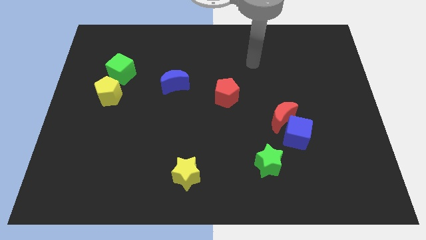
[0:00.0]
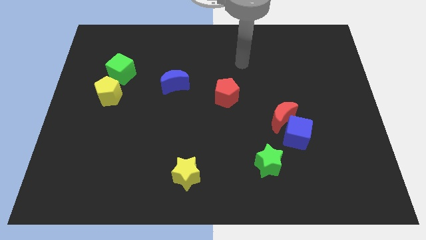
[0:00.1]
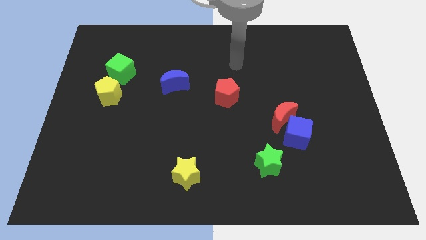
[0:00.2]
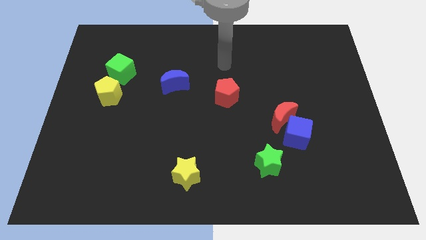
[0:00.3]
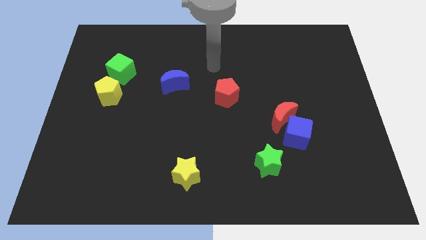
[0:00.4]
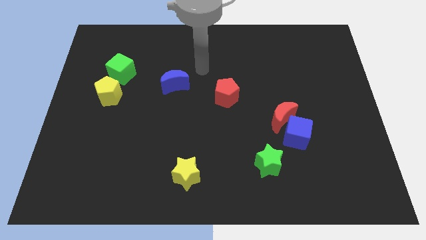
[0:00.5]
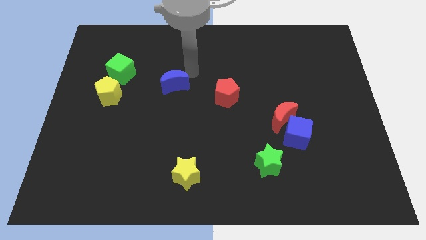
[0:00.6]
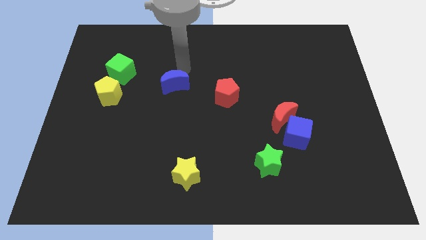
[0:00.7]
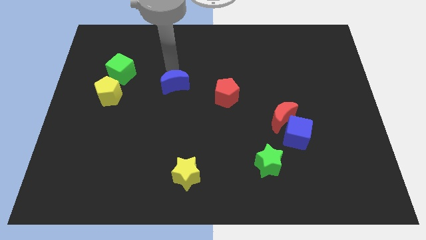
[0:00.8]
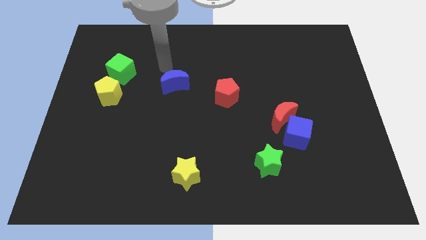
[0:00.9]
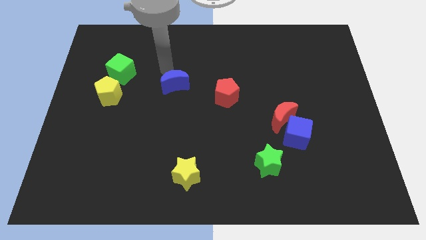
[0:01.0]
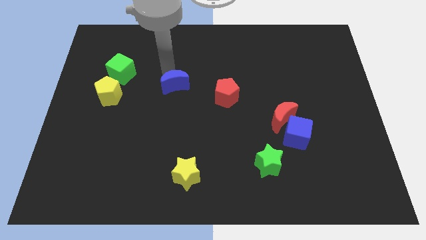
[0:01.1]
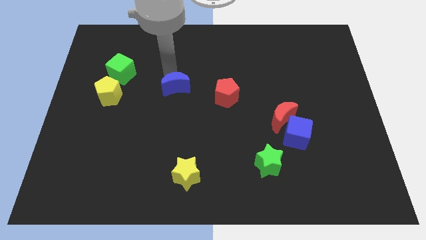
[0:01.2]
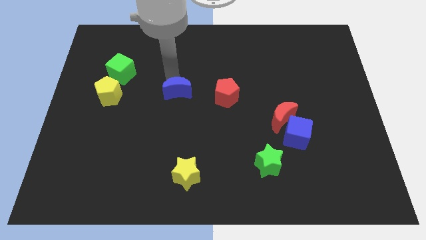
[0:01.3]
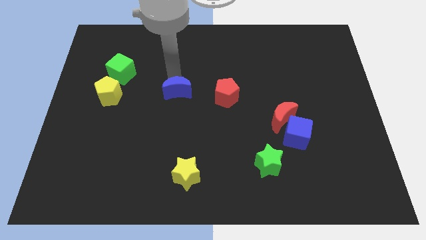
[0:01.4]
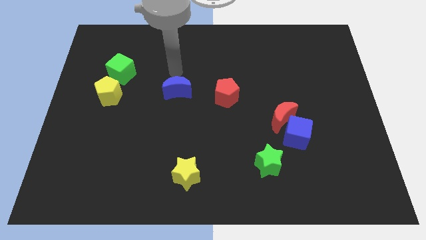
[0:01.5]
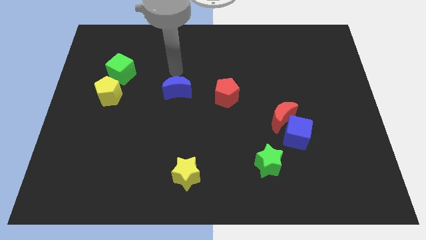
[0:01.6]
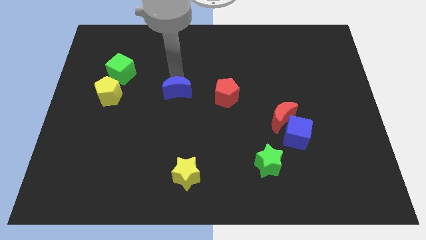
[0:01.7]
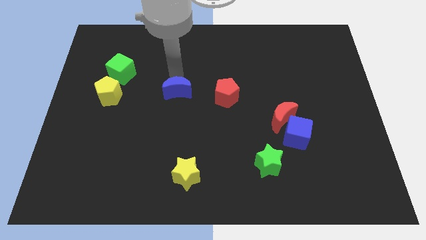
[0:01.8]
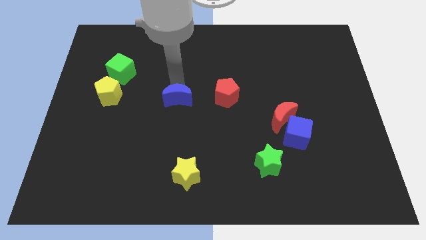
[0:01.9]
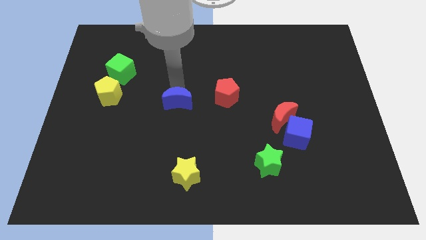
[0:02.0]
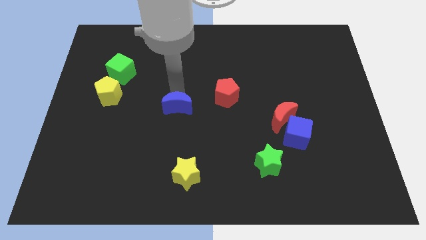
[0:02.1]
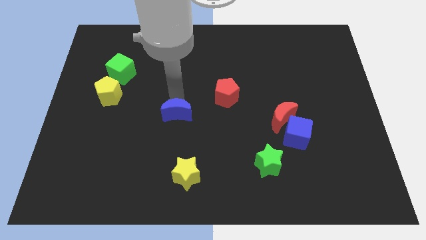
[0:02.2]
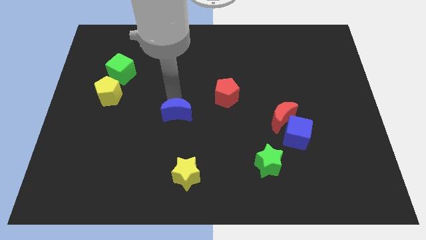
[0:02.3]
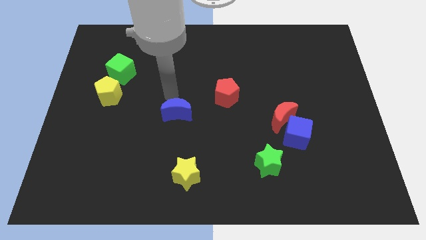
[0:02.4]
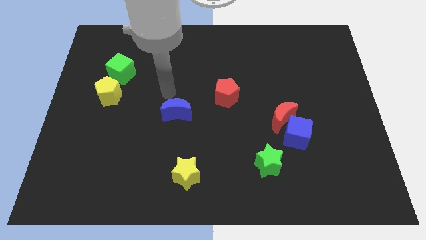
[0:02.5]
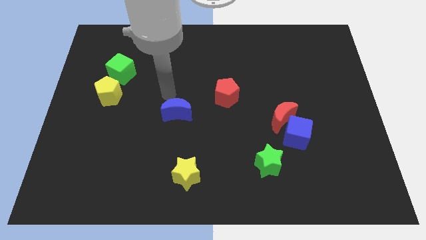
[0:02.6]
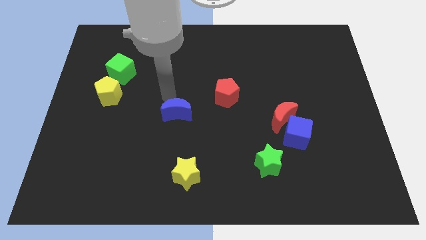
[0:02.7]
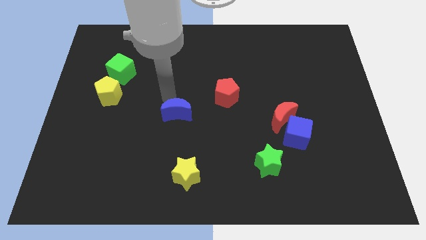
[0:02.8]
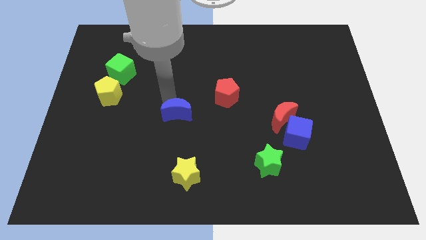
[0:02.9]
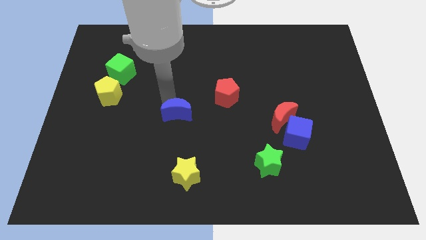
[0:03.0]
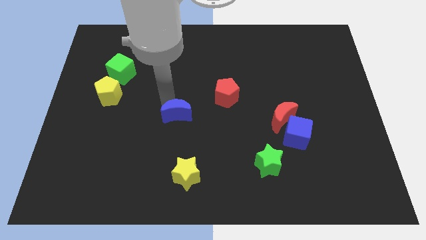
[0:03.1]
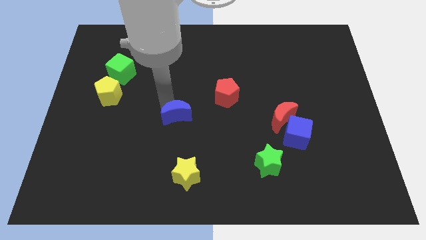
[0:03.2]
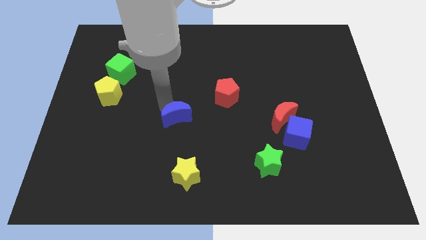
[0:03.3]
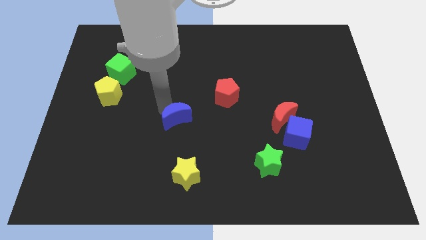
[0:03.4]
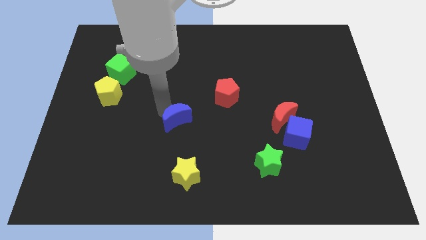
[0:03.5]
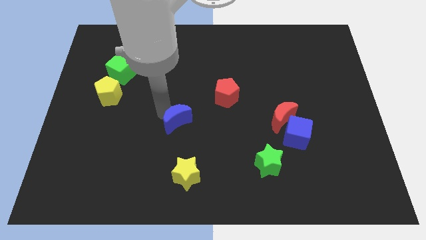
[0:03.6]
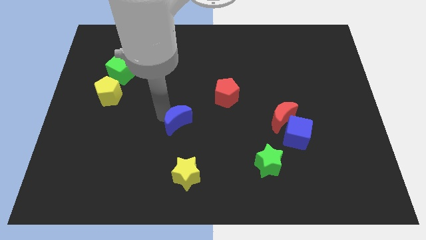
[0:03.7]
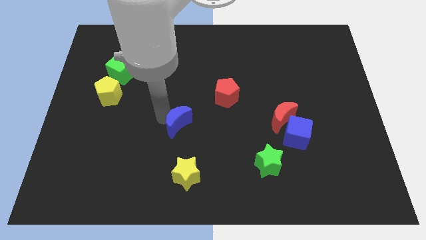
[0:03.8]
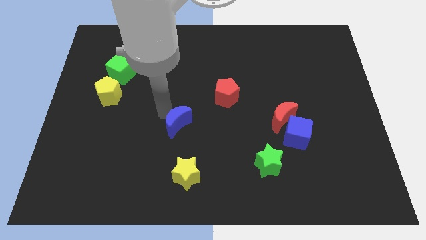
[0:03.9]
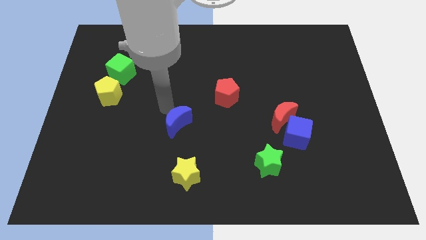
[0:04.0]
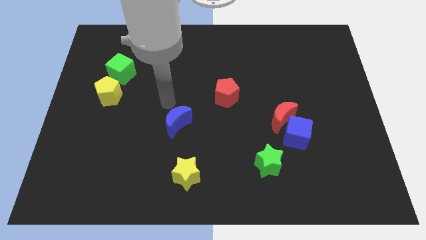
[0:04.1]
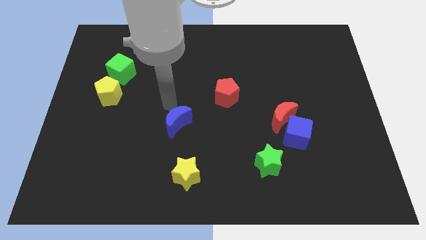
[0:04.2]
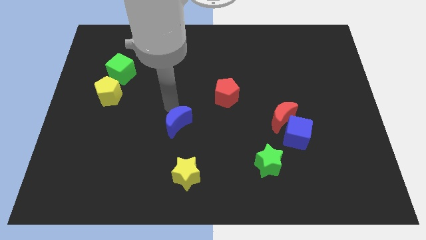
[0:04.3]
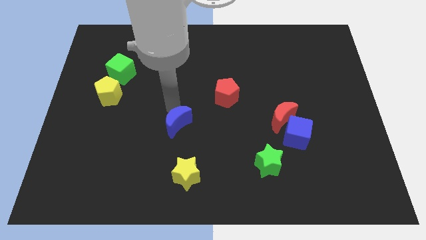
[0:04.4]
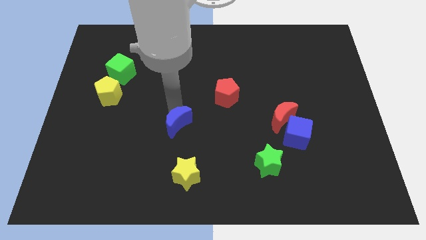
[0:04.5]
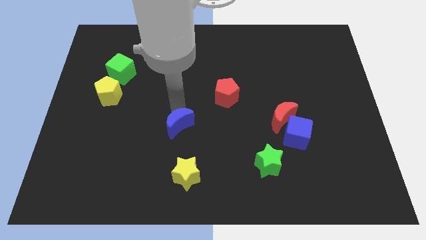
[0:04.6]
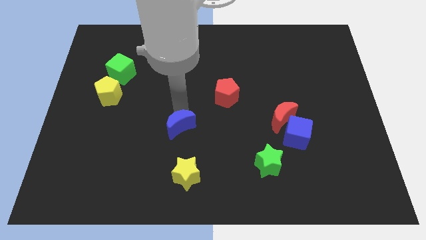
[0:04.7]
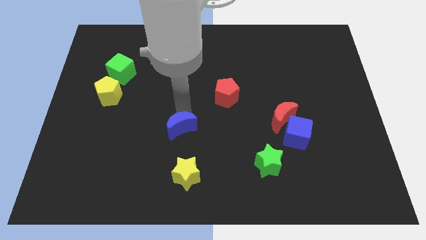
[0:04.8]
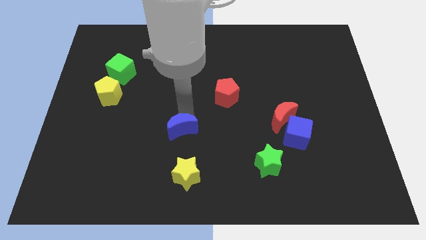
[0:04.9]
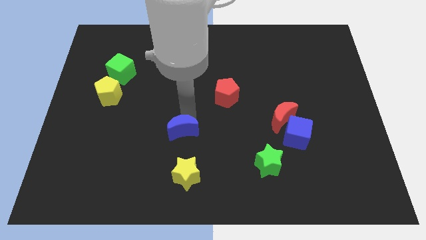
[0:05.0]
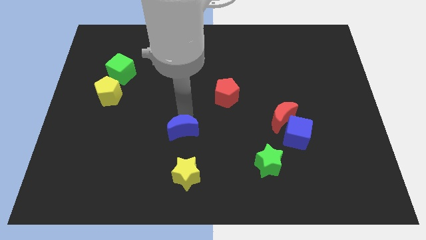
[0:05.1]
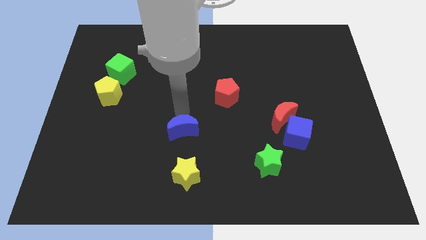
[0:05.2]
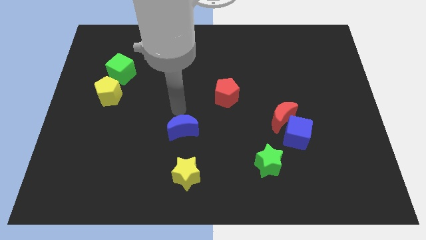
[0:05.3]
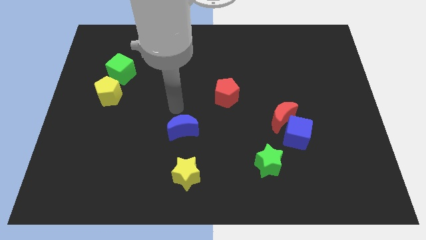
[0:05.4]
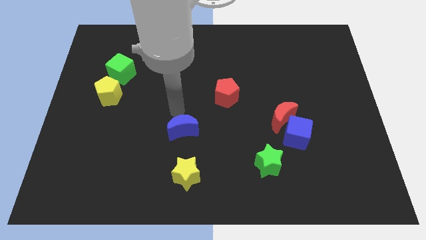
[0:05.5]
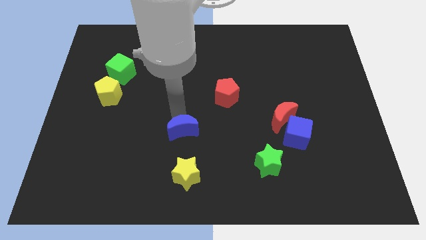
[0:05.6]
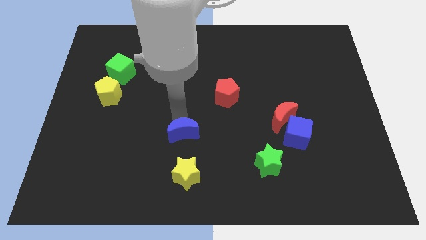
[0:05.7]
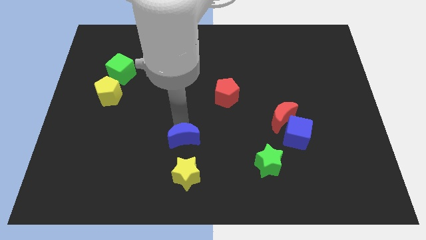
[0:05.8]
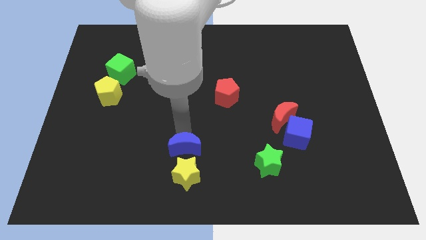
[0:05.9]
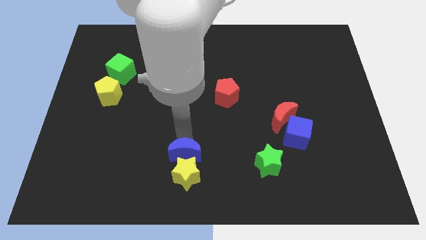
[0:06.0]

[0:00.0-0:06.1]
push the blue moon towards the yellow star

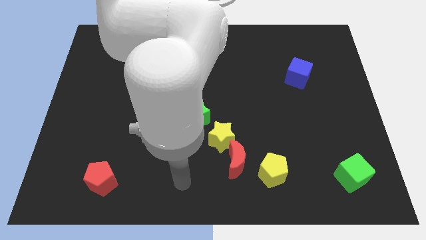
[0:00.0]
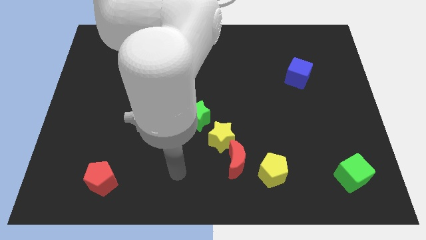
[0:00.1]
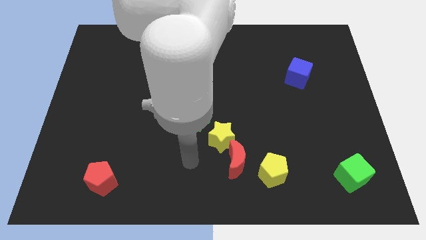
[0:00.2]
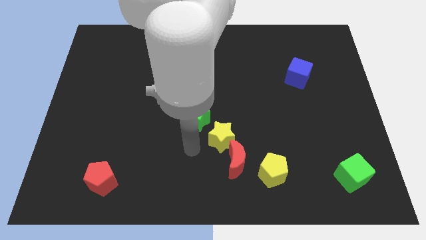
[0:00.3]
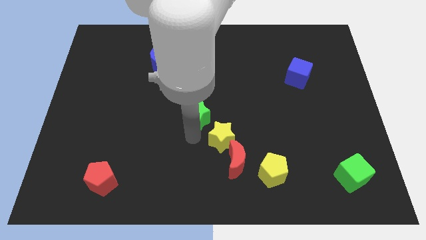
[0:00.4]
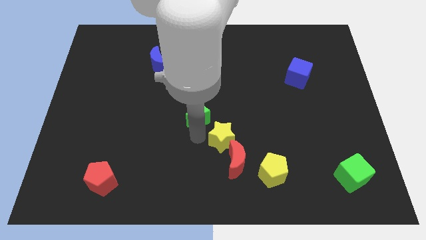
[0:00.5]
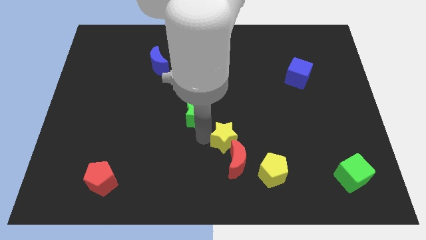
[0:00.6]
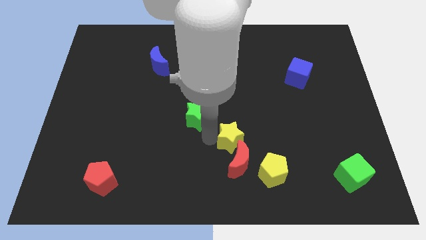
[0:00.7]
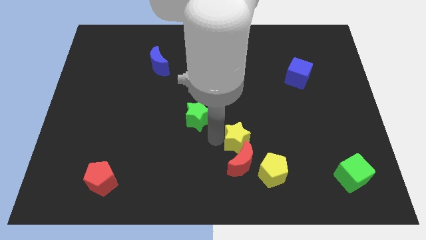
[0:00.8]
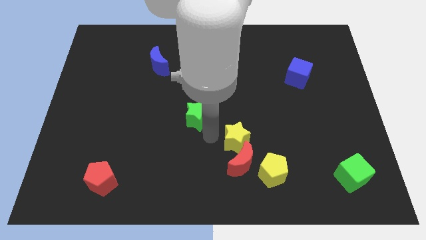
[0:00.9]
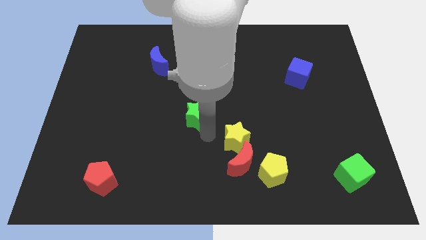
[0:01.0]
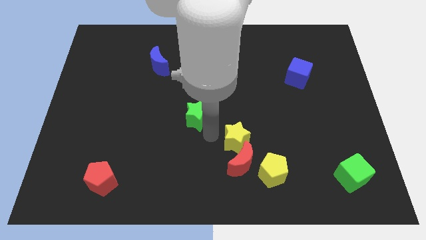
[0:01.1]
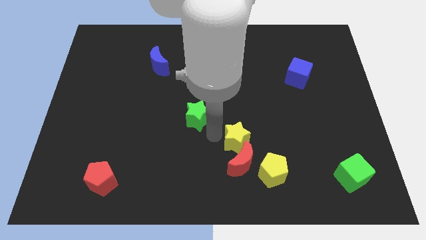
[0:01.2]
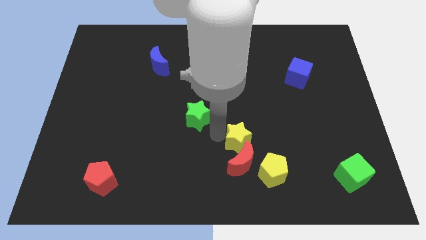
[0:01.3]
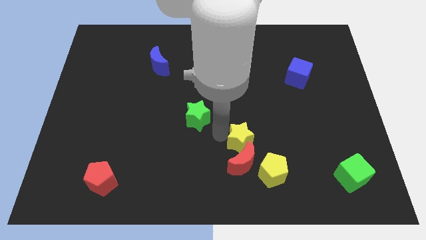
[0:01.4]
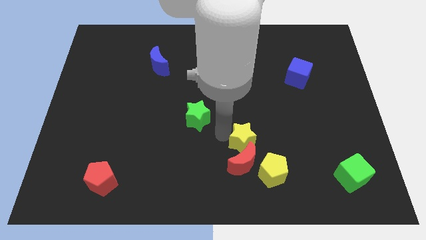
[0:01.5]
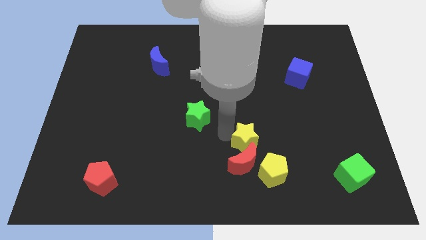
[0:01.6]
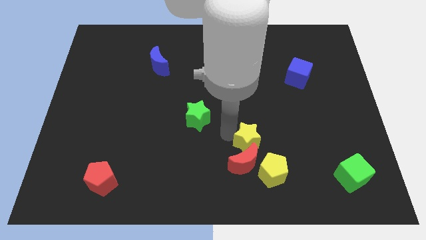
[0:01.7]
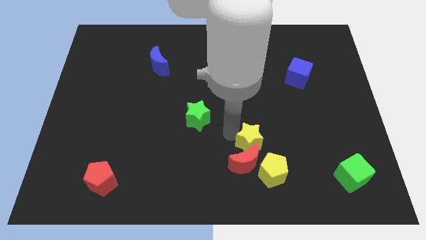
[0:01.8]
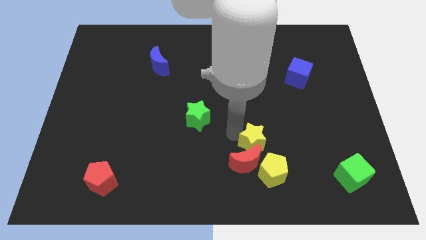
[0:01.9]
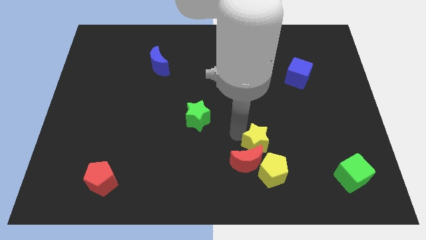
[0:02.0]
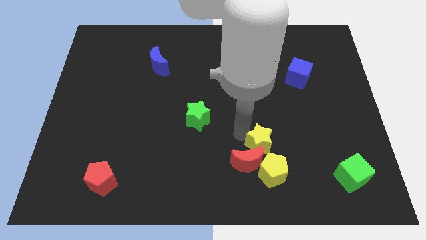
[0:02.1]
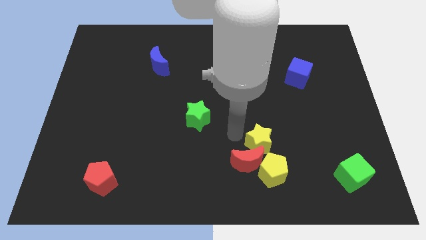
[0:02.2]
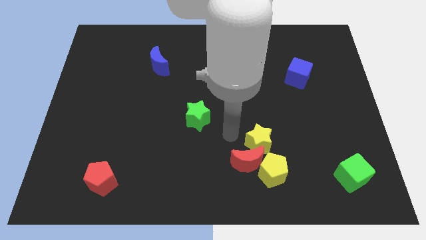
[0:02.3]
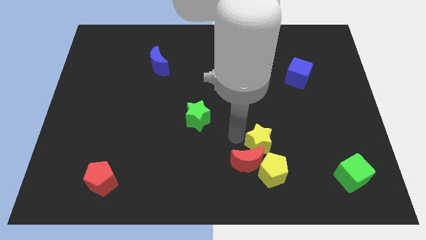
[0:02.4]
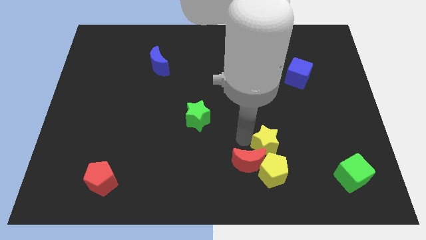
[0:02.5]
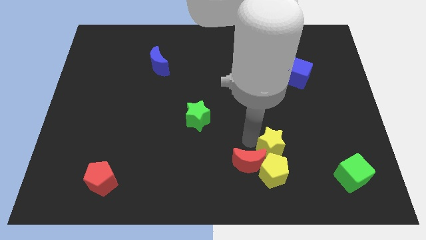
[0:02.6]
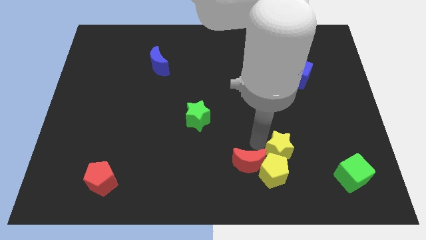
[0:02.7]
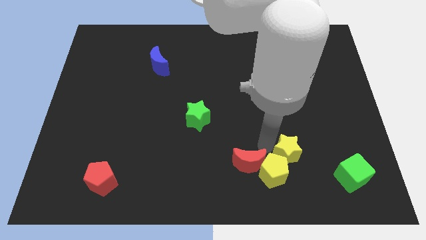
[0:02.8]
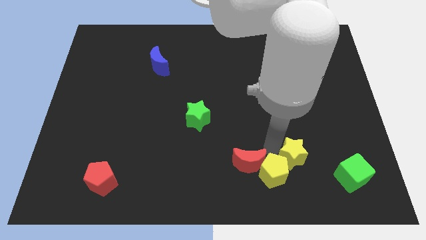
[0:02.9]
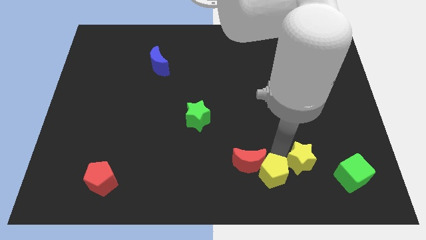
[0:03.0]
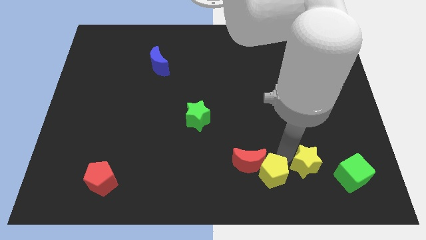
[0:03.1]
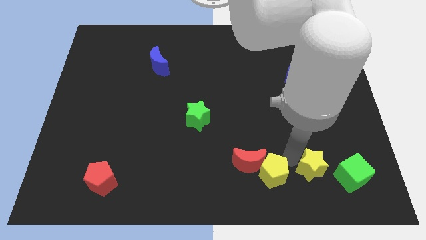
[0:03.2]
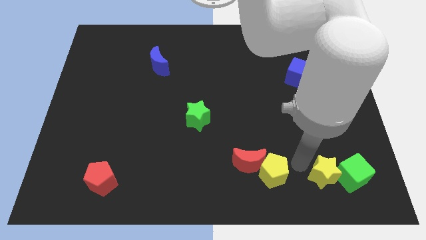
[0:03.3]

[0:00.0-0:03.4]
slide the yellow star next to the green cube
